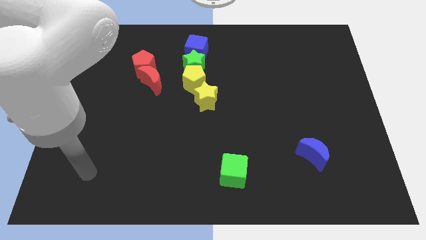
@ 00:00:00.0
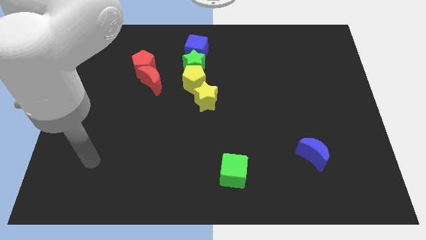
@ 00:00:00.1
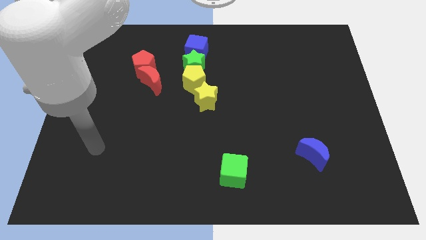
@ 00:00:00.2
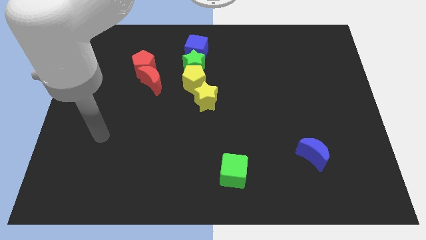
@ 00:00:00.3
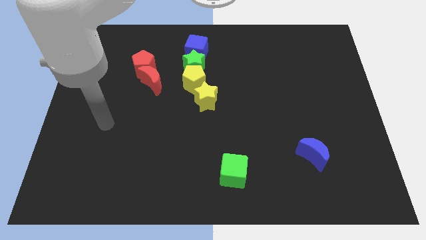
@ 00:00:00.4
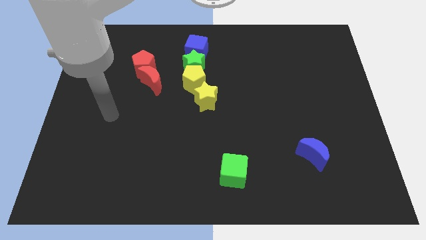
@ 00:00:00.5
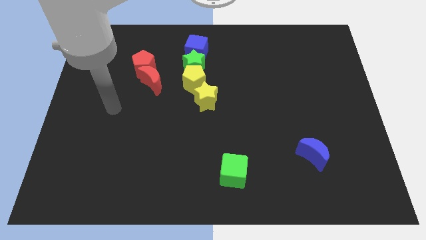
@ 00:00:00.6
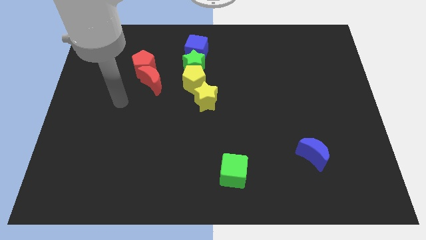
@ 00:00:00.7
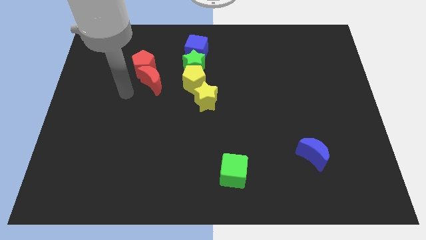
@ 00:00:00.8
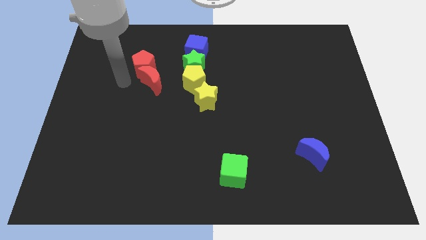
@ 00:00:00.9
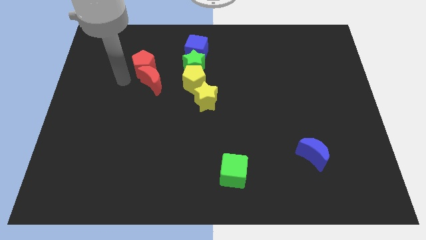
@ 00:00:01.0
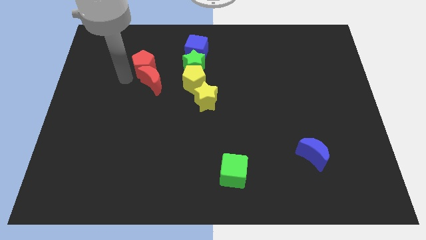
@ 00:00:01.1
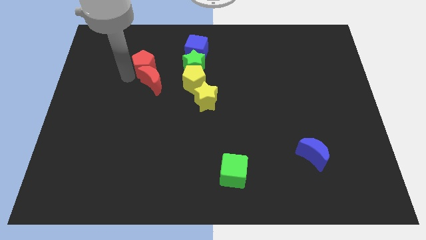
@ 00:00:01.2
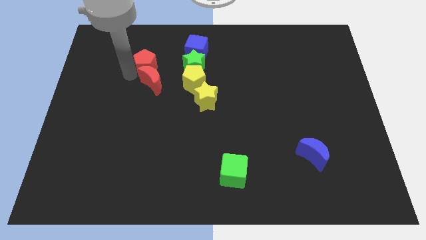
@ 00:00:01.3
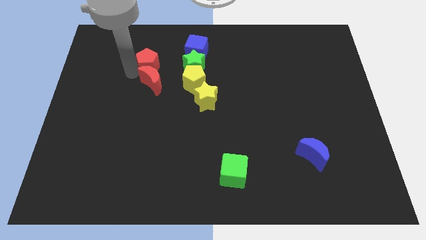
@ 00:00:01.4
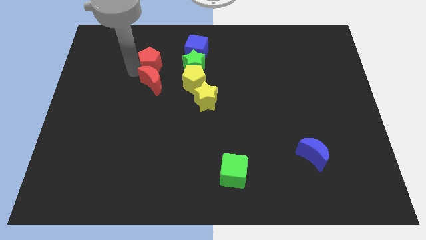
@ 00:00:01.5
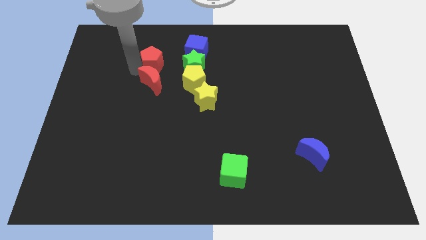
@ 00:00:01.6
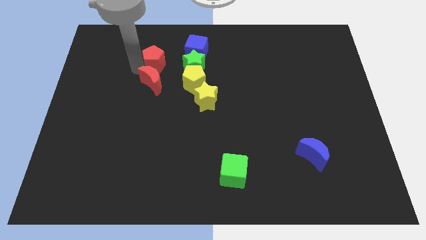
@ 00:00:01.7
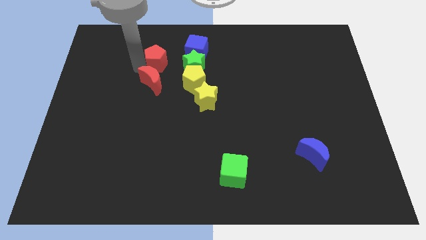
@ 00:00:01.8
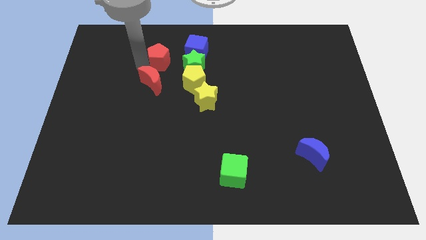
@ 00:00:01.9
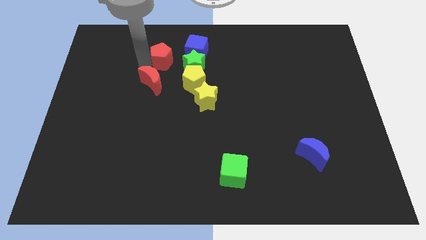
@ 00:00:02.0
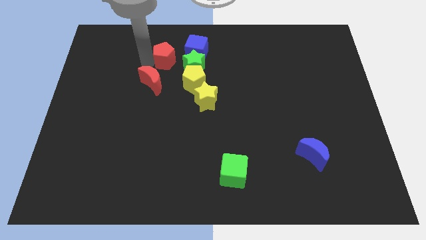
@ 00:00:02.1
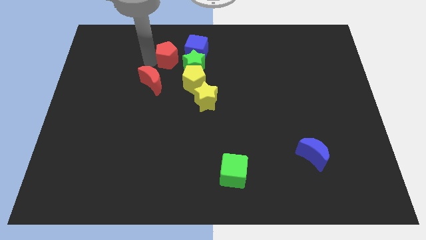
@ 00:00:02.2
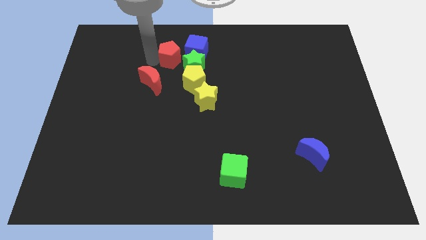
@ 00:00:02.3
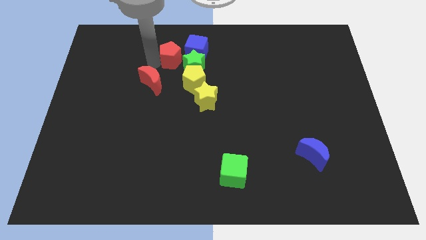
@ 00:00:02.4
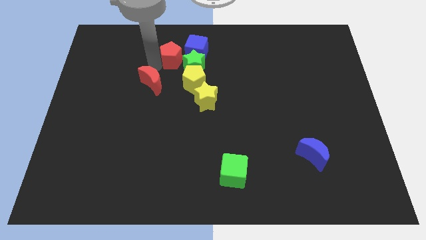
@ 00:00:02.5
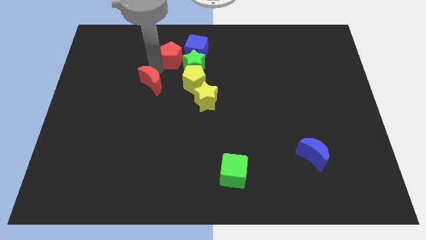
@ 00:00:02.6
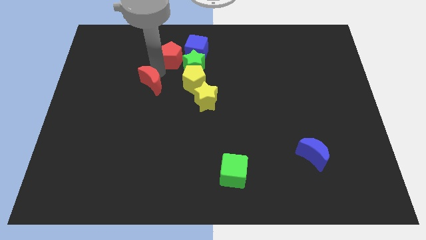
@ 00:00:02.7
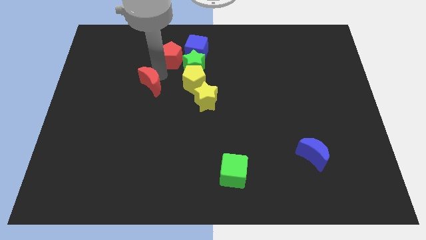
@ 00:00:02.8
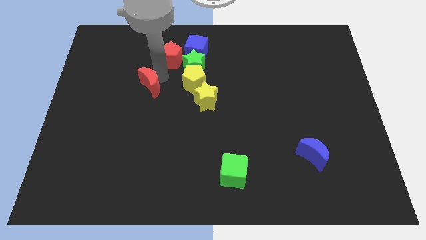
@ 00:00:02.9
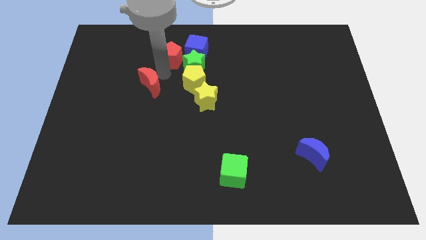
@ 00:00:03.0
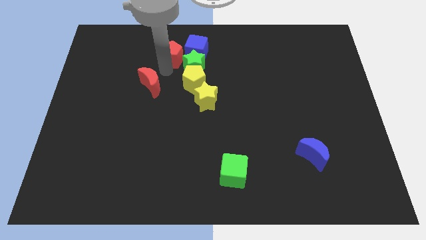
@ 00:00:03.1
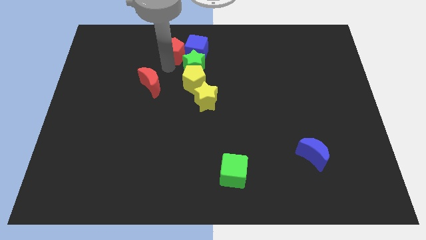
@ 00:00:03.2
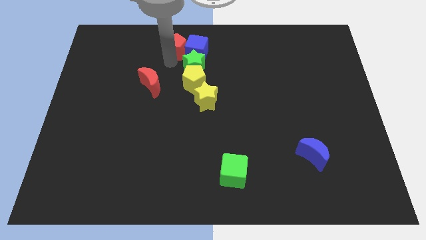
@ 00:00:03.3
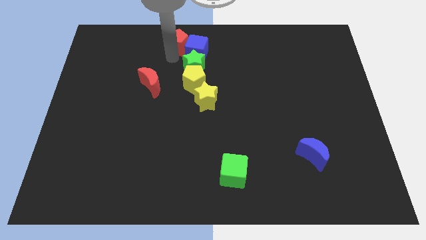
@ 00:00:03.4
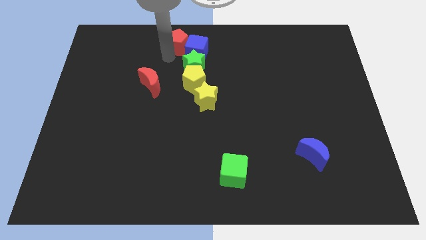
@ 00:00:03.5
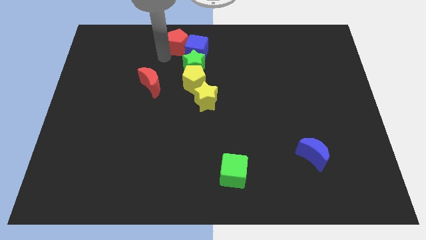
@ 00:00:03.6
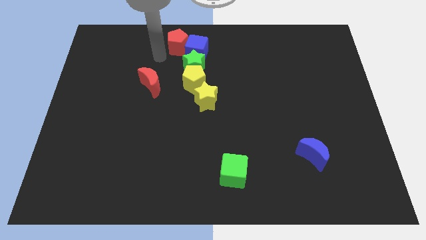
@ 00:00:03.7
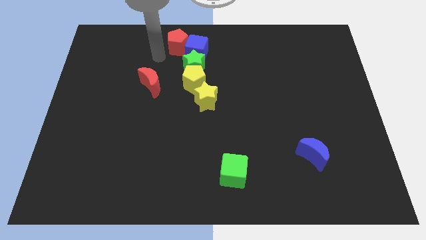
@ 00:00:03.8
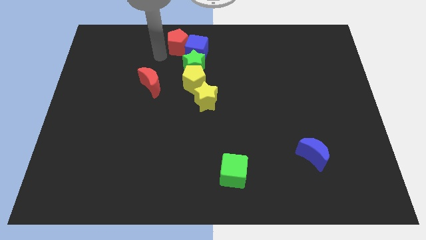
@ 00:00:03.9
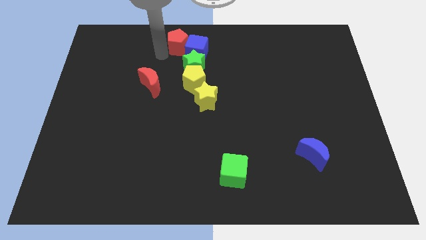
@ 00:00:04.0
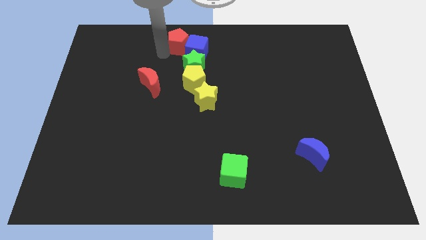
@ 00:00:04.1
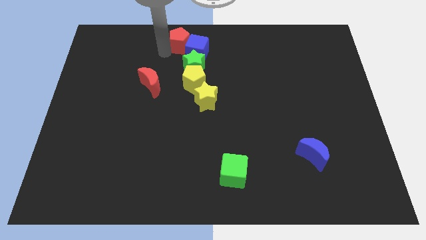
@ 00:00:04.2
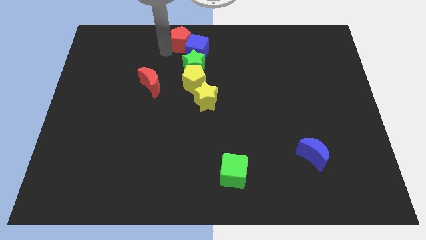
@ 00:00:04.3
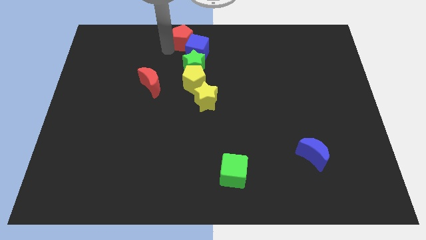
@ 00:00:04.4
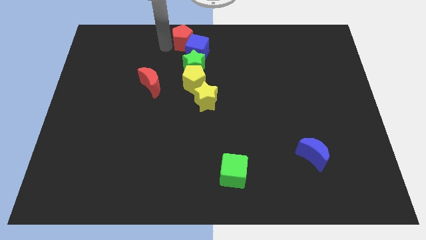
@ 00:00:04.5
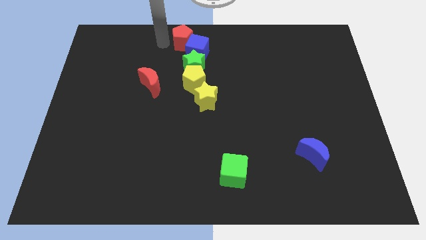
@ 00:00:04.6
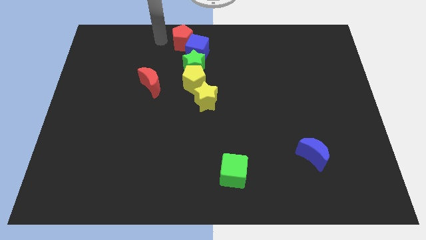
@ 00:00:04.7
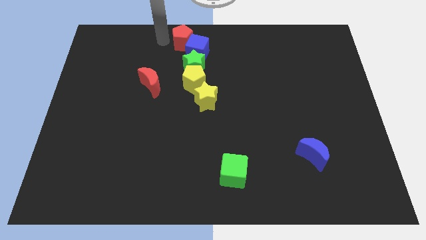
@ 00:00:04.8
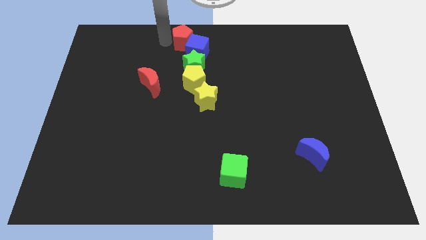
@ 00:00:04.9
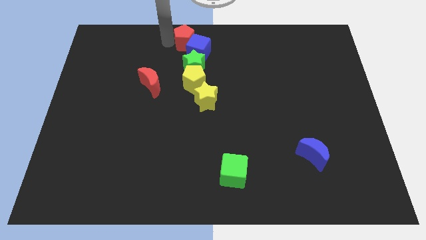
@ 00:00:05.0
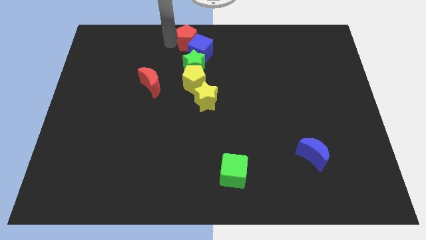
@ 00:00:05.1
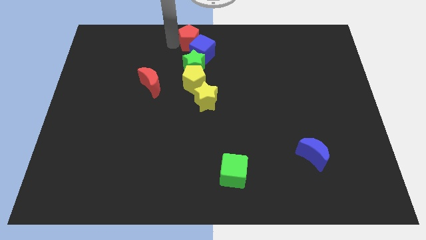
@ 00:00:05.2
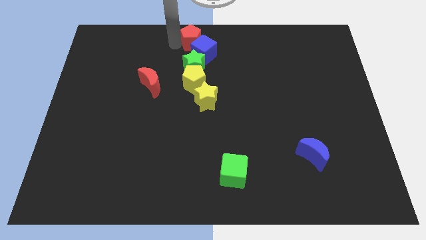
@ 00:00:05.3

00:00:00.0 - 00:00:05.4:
slide the red pentagon a bit right

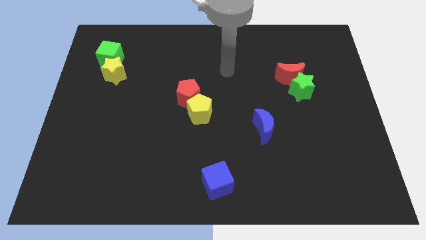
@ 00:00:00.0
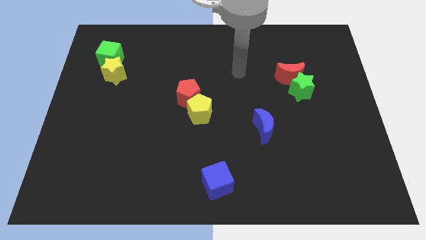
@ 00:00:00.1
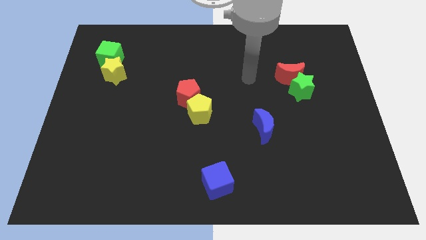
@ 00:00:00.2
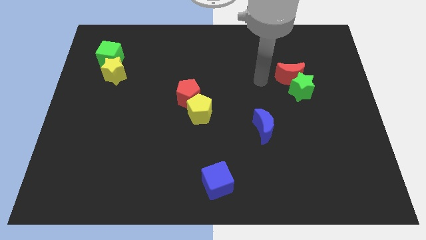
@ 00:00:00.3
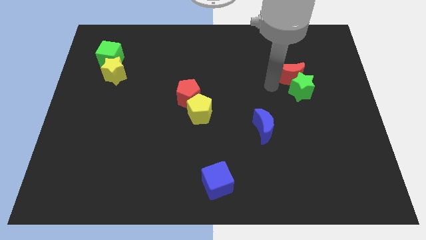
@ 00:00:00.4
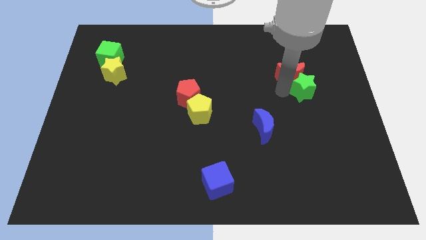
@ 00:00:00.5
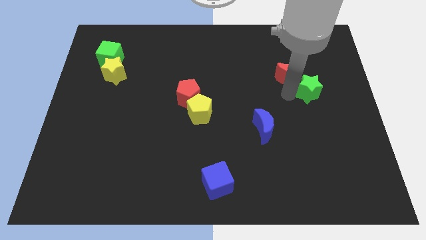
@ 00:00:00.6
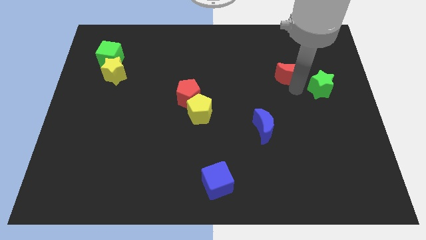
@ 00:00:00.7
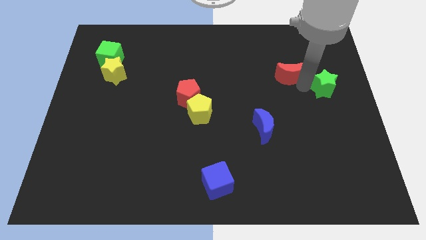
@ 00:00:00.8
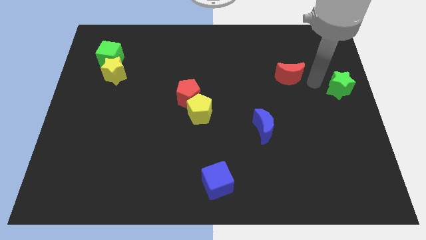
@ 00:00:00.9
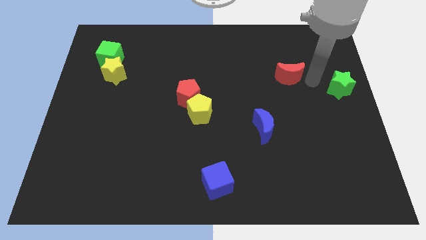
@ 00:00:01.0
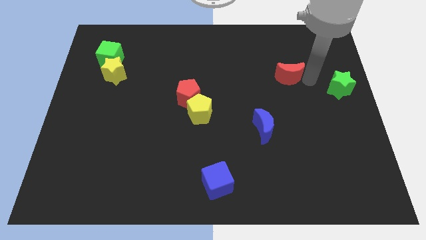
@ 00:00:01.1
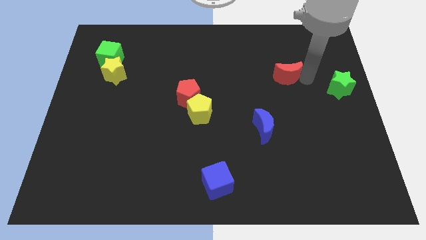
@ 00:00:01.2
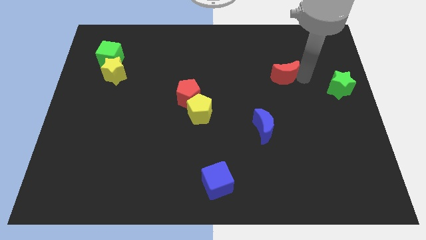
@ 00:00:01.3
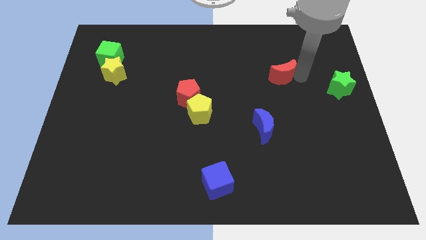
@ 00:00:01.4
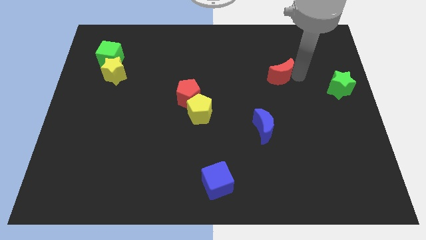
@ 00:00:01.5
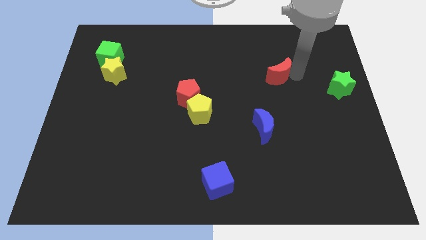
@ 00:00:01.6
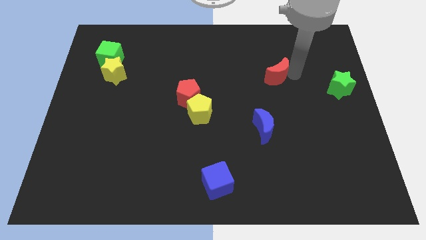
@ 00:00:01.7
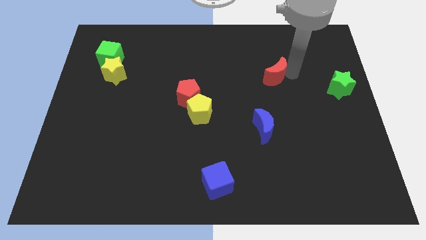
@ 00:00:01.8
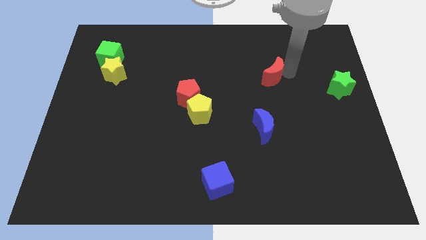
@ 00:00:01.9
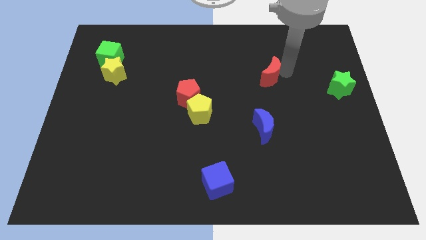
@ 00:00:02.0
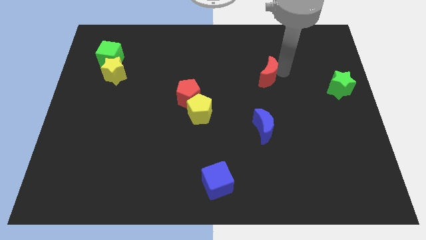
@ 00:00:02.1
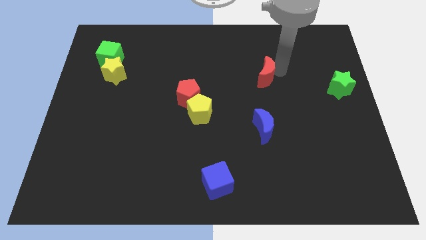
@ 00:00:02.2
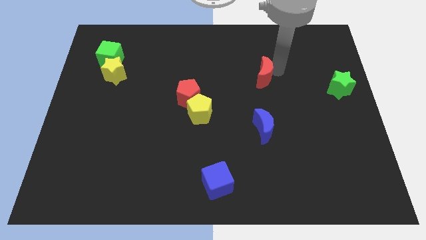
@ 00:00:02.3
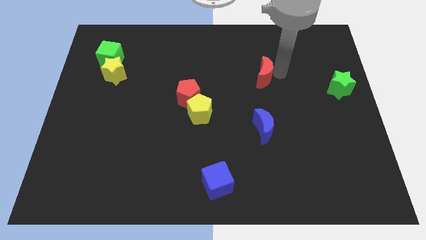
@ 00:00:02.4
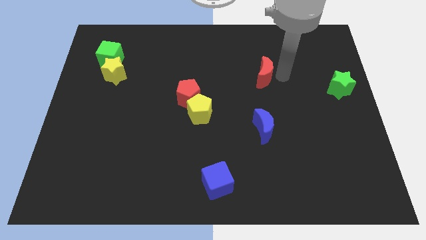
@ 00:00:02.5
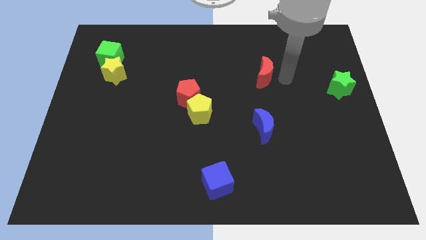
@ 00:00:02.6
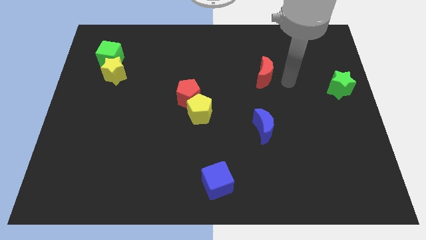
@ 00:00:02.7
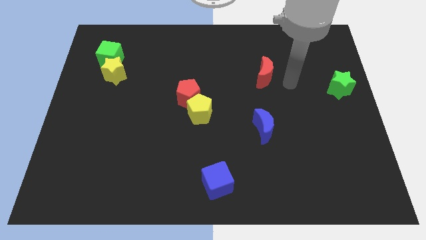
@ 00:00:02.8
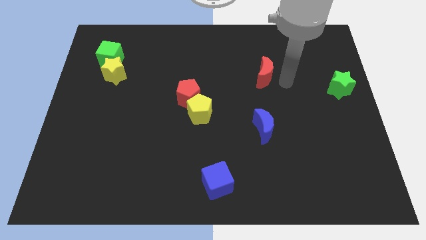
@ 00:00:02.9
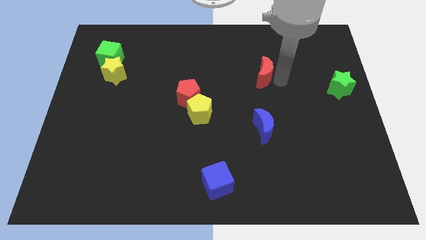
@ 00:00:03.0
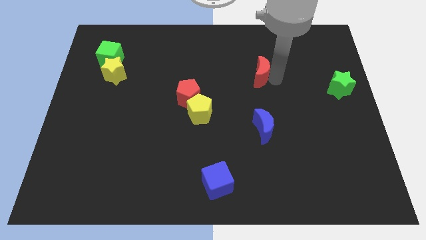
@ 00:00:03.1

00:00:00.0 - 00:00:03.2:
push the red moon to the left a bit
